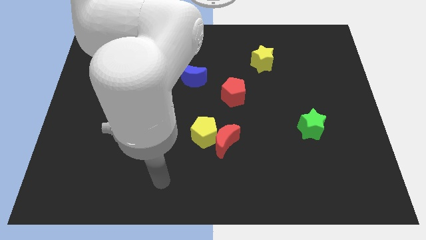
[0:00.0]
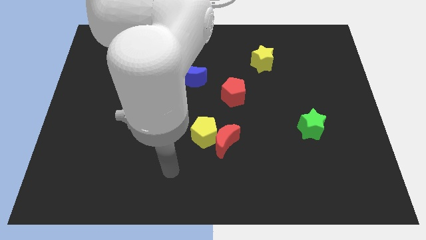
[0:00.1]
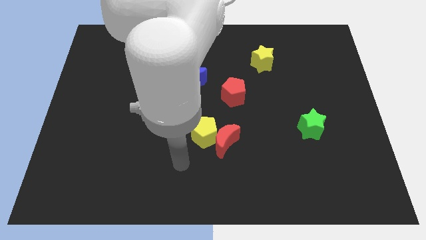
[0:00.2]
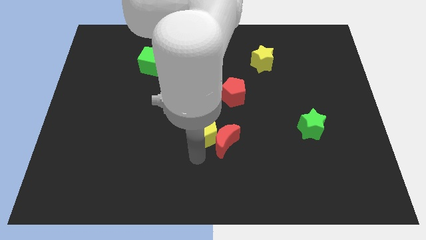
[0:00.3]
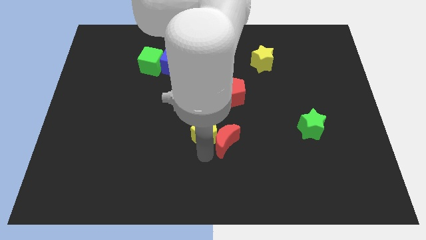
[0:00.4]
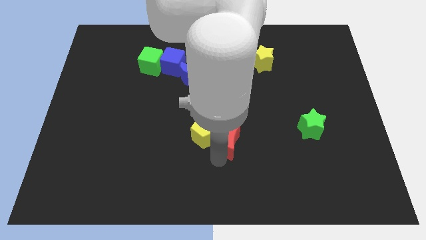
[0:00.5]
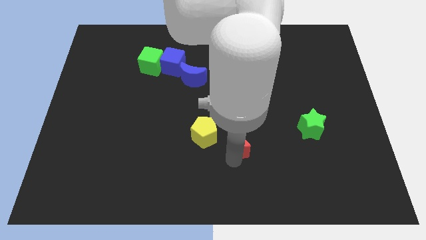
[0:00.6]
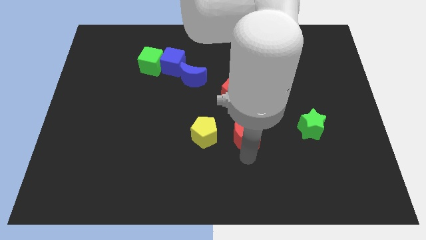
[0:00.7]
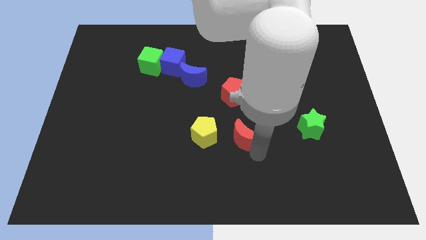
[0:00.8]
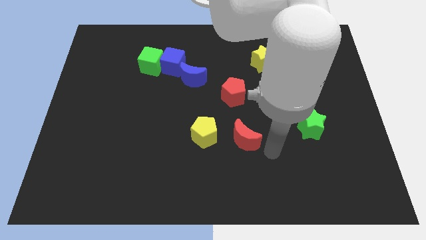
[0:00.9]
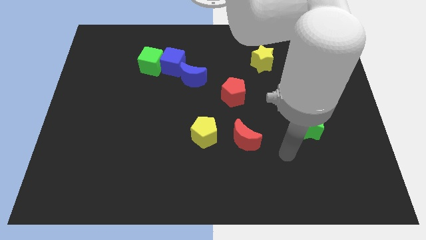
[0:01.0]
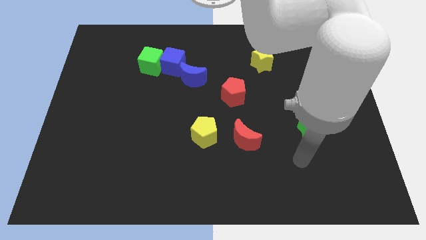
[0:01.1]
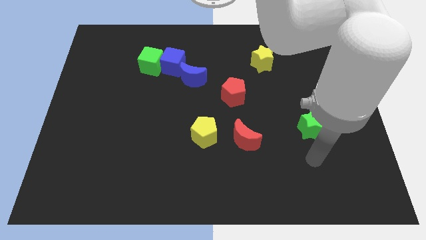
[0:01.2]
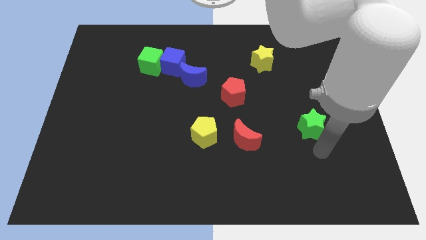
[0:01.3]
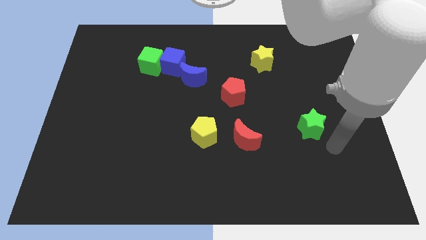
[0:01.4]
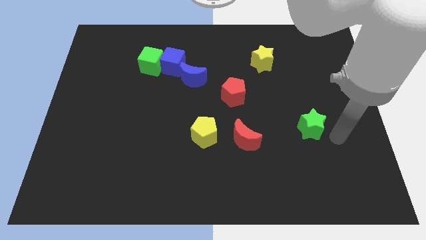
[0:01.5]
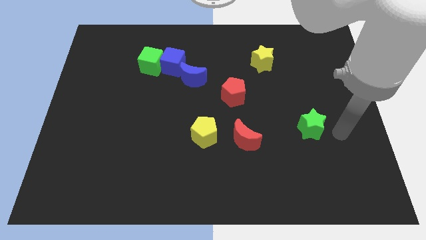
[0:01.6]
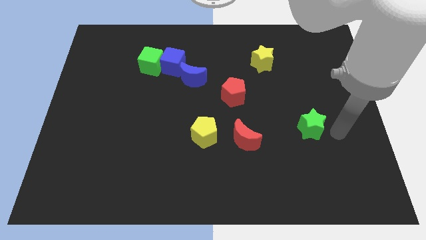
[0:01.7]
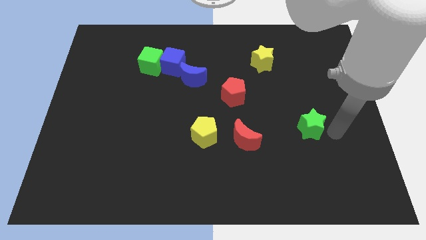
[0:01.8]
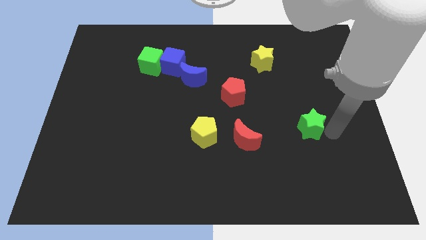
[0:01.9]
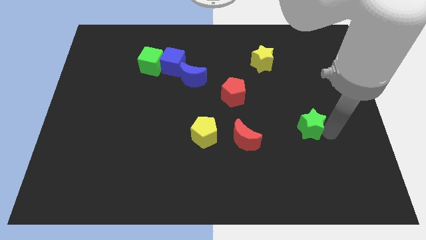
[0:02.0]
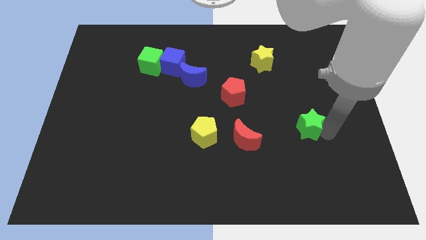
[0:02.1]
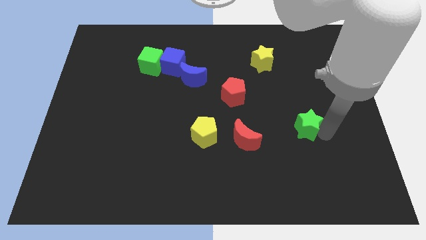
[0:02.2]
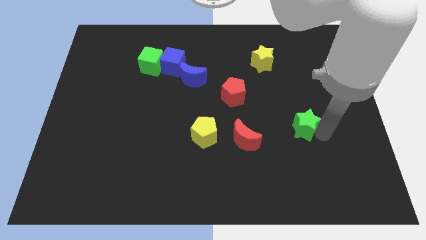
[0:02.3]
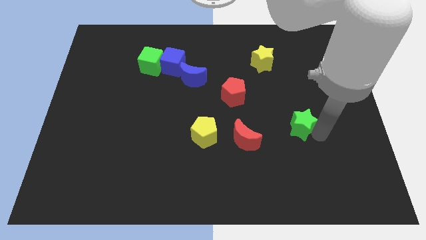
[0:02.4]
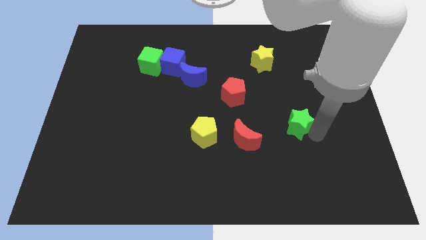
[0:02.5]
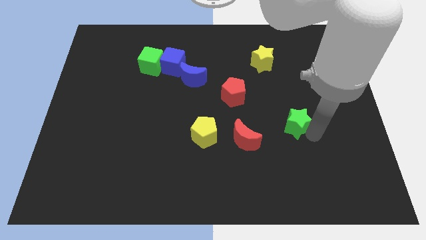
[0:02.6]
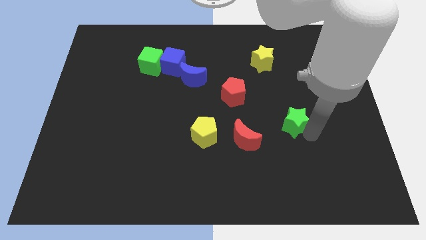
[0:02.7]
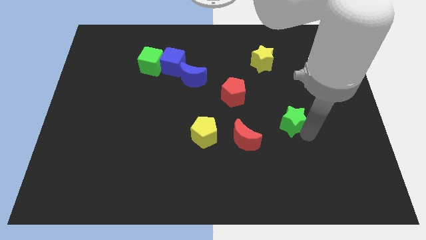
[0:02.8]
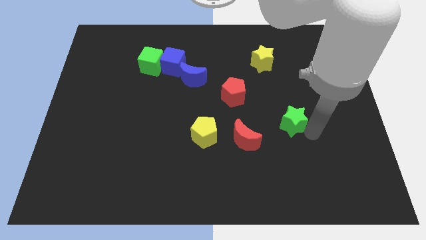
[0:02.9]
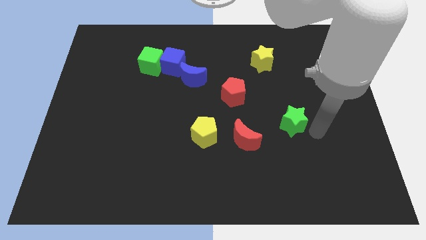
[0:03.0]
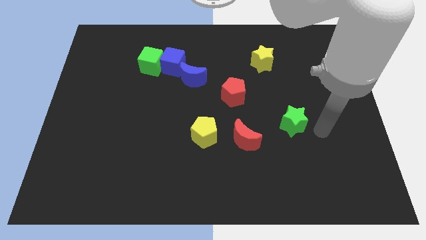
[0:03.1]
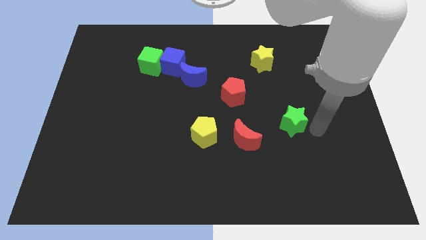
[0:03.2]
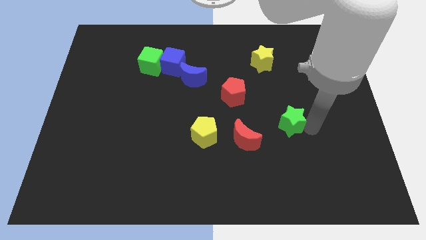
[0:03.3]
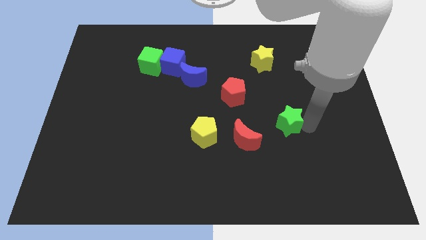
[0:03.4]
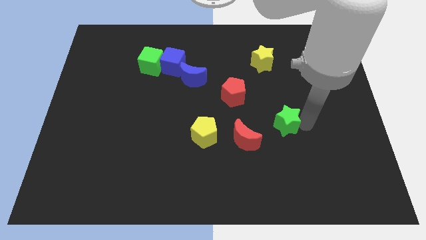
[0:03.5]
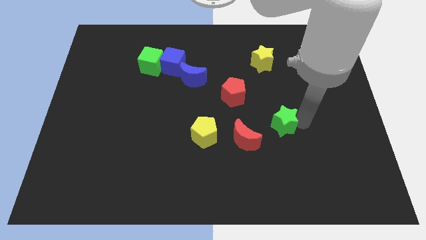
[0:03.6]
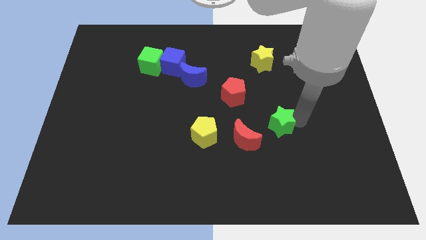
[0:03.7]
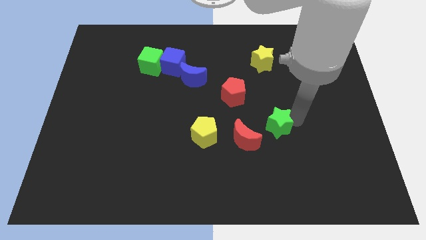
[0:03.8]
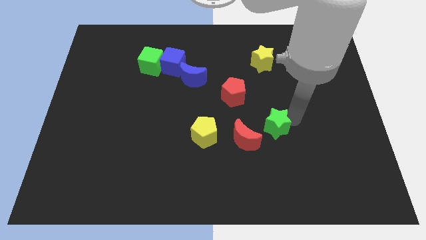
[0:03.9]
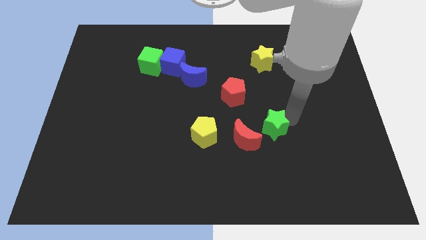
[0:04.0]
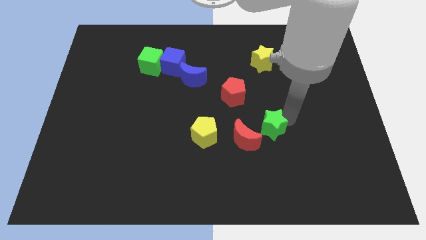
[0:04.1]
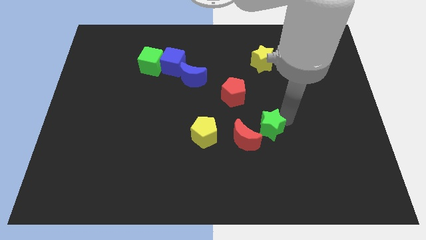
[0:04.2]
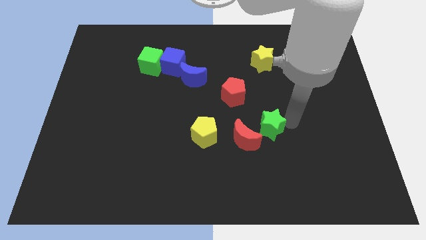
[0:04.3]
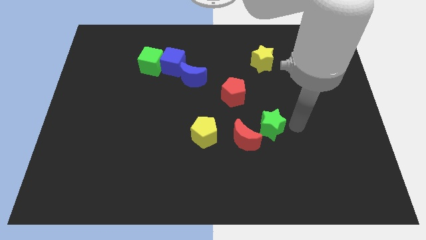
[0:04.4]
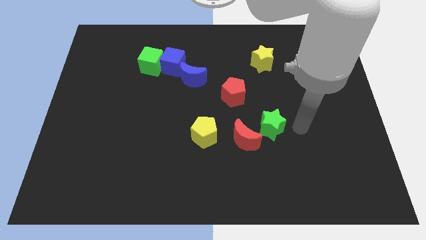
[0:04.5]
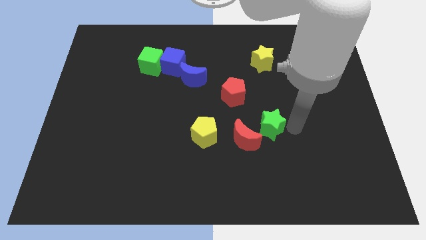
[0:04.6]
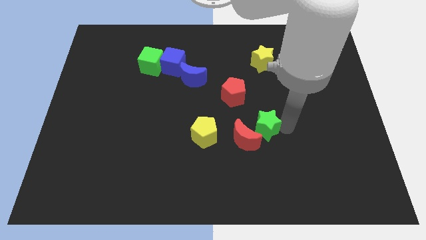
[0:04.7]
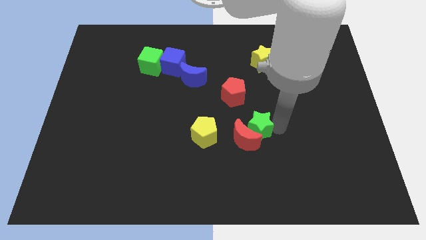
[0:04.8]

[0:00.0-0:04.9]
move the green star above the red moon

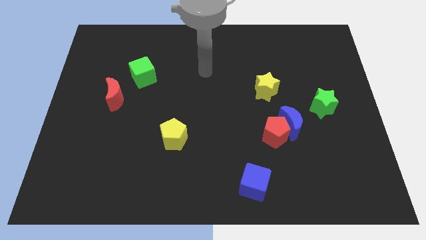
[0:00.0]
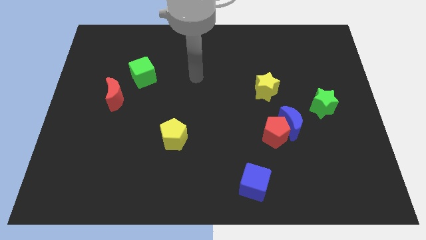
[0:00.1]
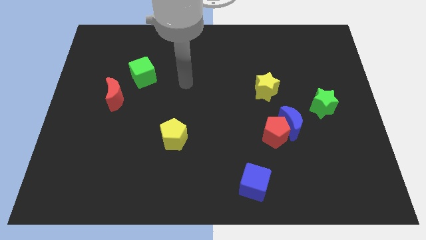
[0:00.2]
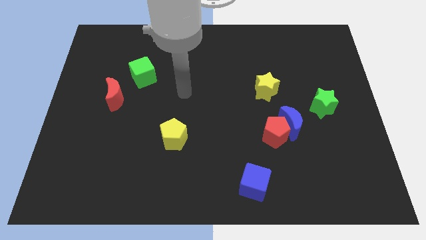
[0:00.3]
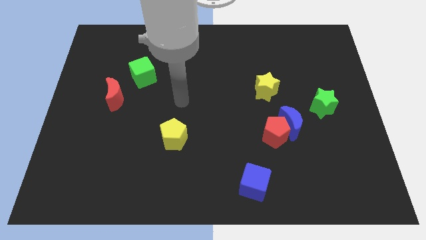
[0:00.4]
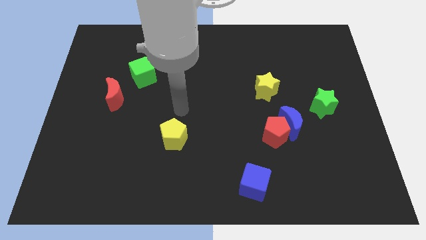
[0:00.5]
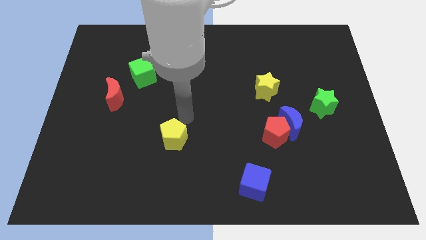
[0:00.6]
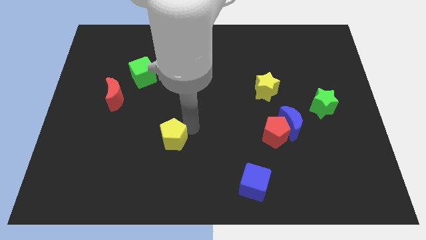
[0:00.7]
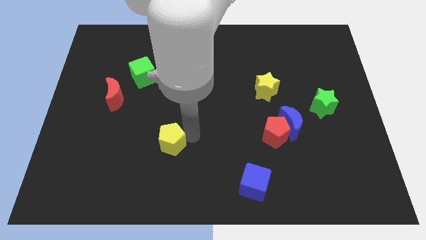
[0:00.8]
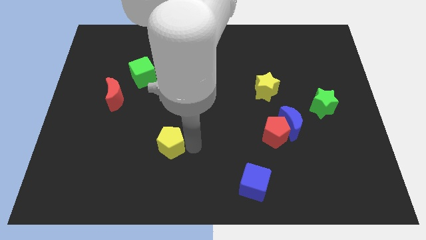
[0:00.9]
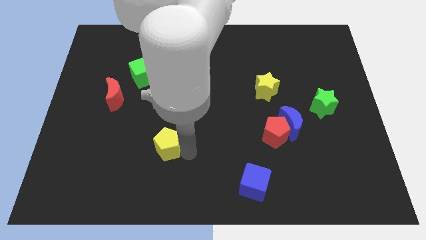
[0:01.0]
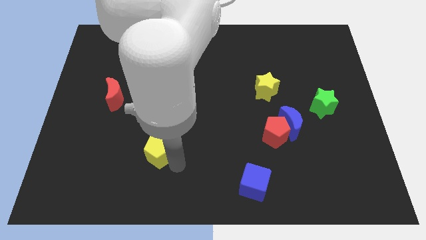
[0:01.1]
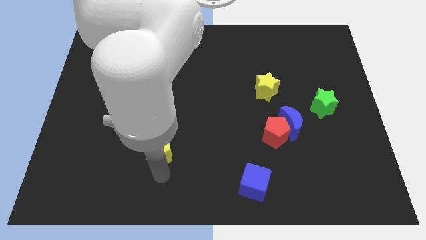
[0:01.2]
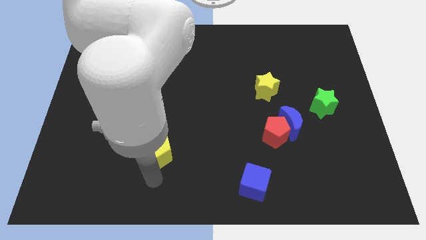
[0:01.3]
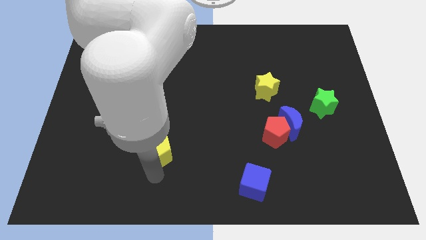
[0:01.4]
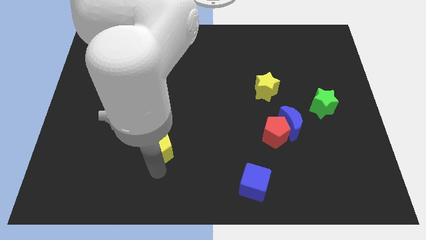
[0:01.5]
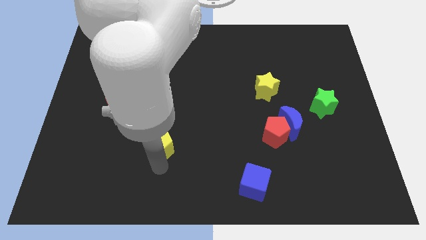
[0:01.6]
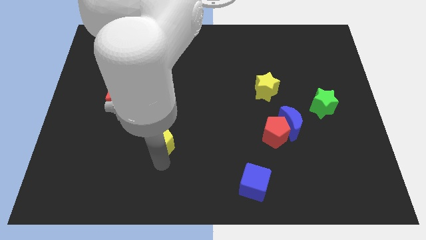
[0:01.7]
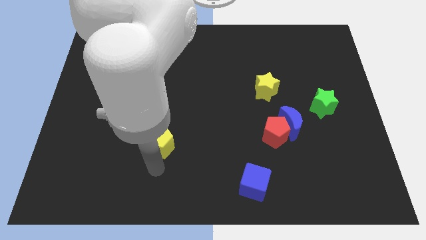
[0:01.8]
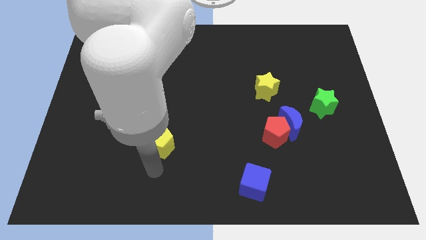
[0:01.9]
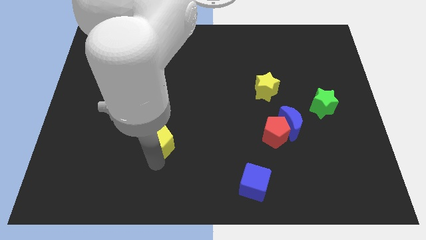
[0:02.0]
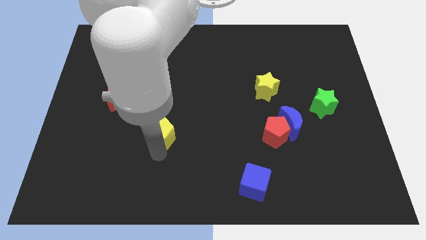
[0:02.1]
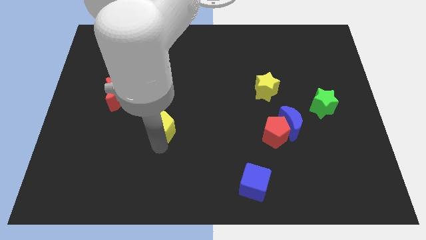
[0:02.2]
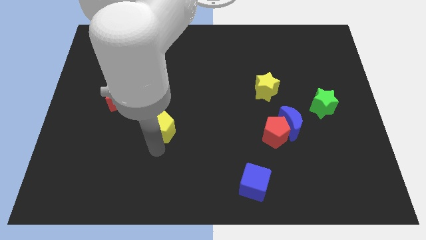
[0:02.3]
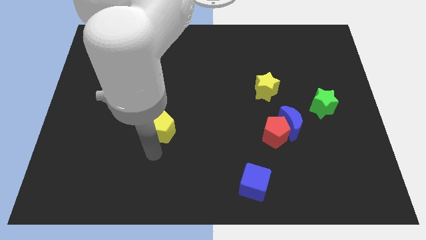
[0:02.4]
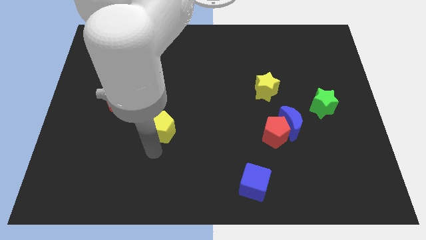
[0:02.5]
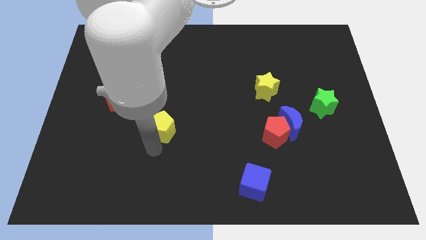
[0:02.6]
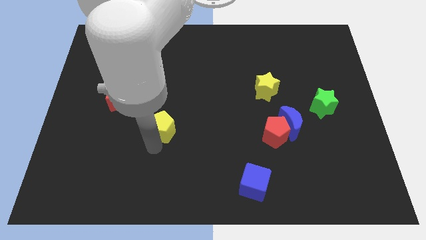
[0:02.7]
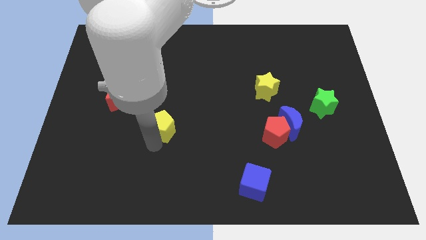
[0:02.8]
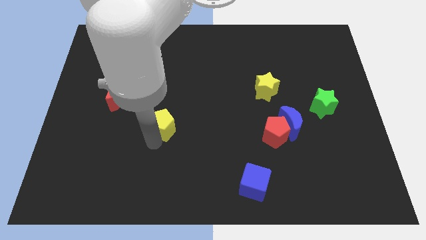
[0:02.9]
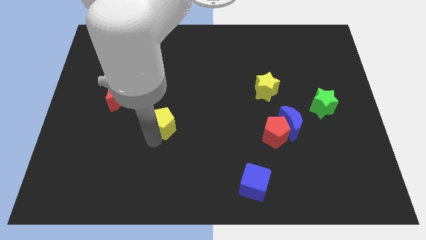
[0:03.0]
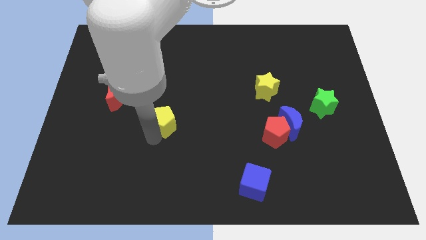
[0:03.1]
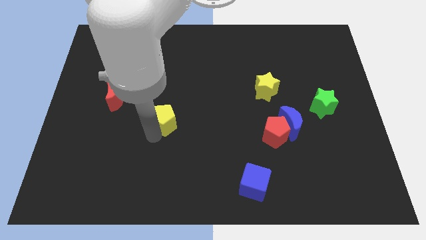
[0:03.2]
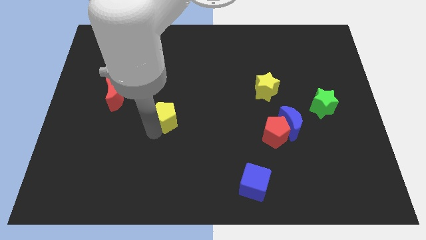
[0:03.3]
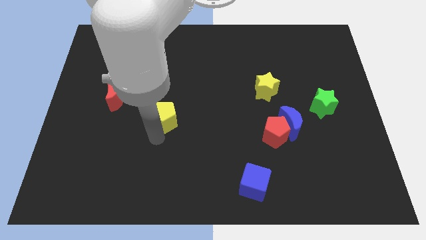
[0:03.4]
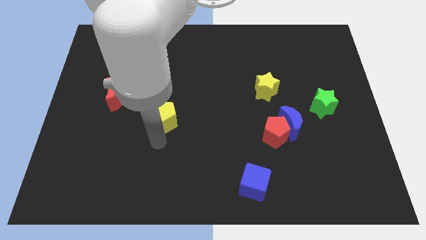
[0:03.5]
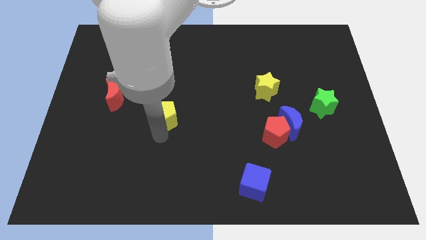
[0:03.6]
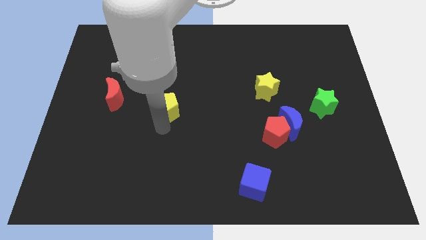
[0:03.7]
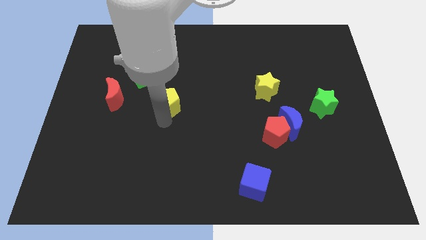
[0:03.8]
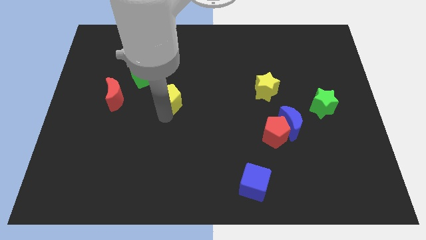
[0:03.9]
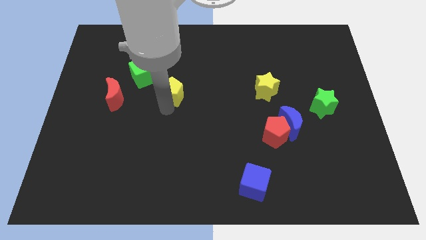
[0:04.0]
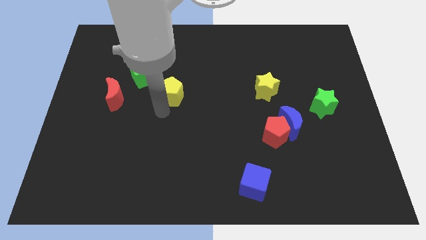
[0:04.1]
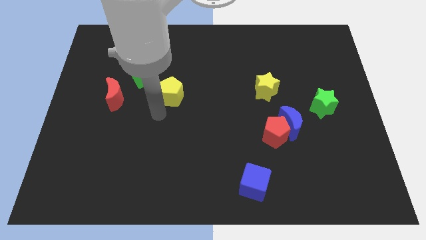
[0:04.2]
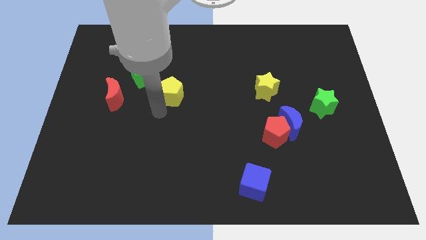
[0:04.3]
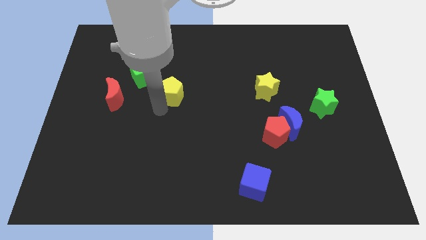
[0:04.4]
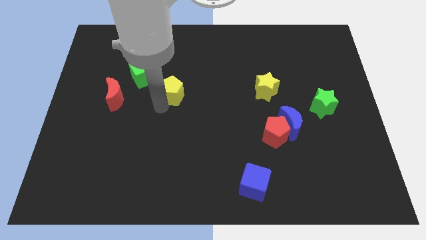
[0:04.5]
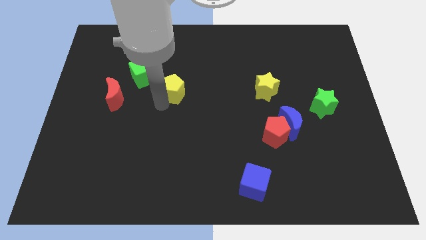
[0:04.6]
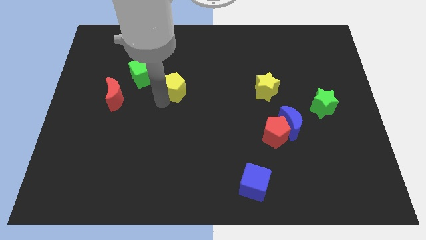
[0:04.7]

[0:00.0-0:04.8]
move the yellow pentagon to the right of the green cube
